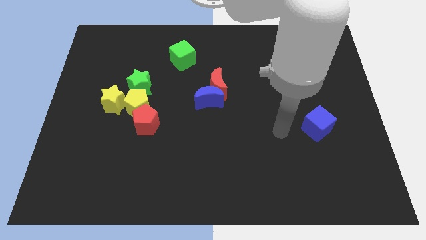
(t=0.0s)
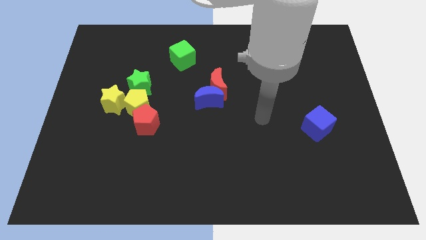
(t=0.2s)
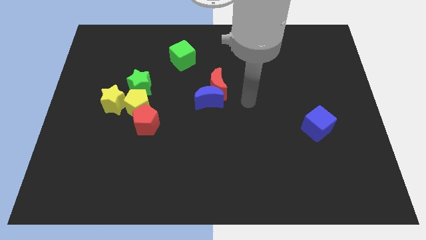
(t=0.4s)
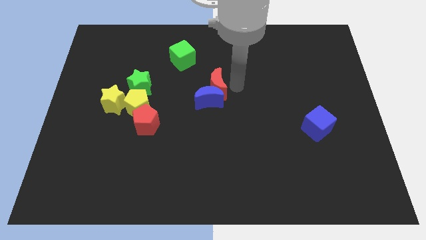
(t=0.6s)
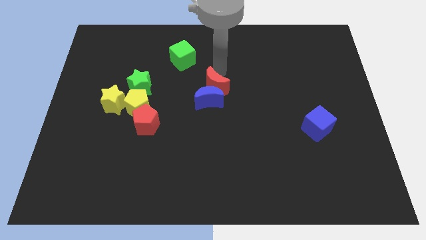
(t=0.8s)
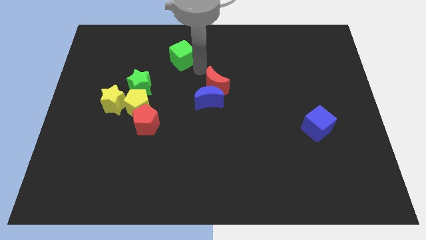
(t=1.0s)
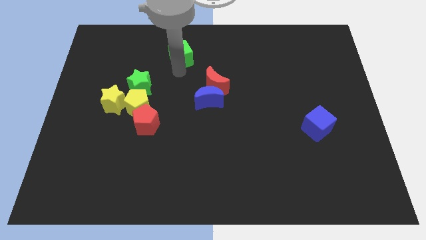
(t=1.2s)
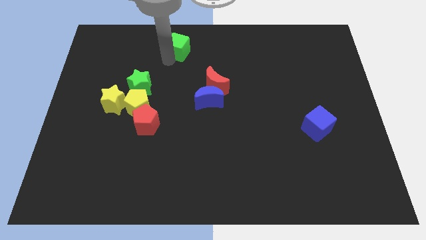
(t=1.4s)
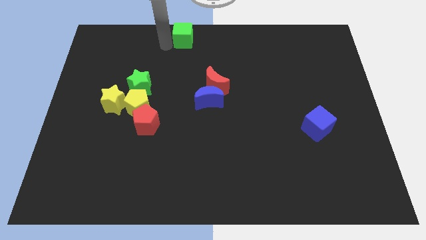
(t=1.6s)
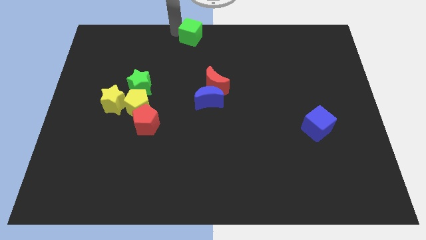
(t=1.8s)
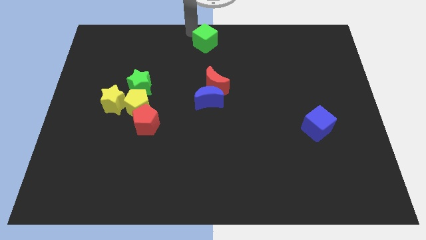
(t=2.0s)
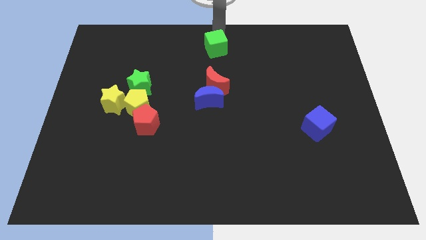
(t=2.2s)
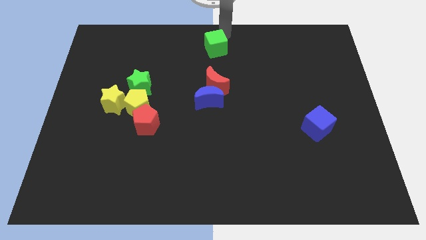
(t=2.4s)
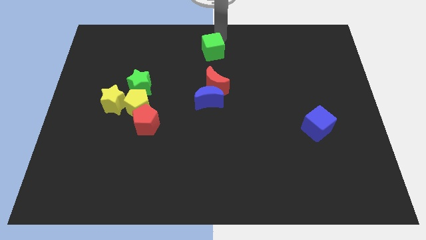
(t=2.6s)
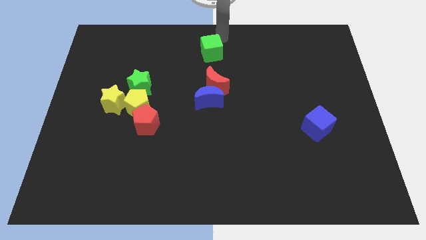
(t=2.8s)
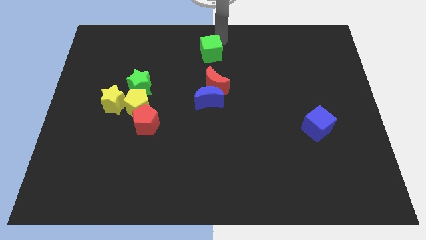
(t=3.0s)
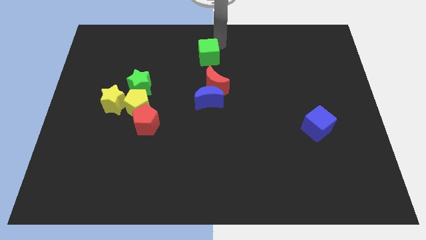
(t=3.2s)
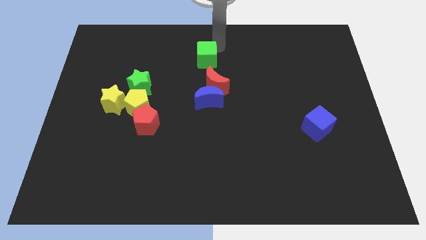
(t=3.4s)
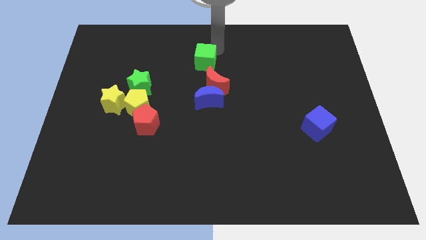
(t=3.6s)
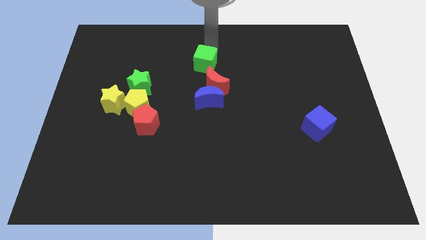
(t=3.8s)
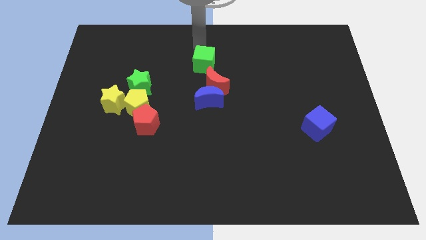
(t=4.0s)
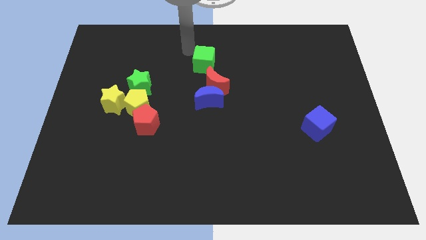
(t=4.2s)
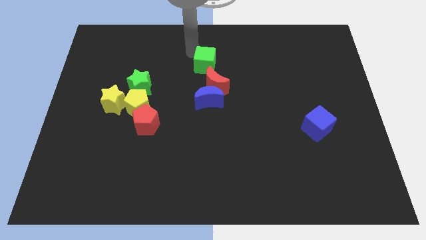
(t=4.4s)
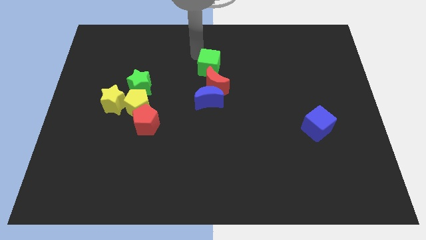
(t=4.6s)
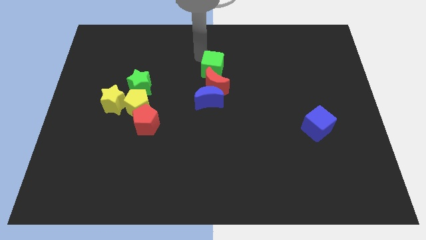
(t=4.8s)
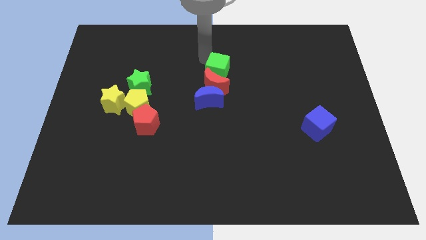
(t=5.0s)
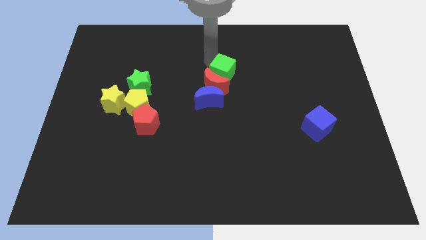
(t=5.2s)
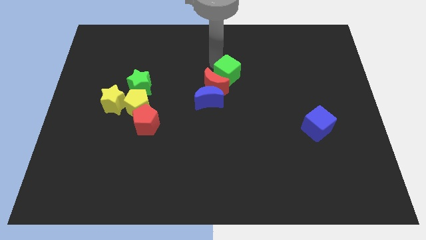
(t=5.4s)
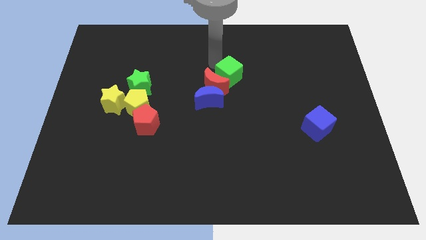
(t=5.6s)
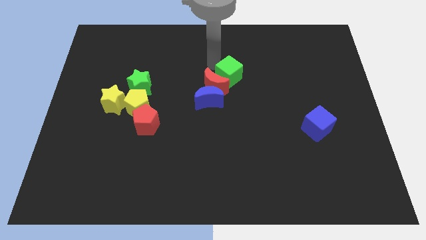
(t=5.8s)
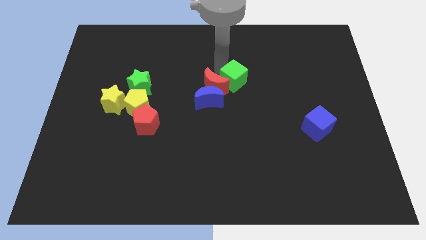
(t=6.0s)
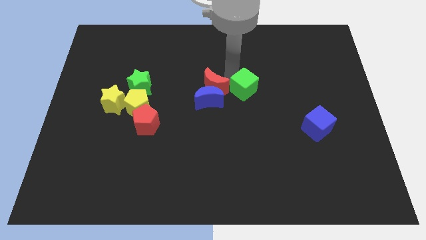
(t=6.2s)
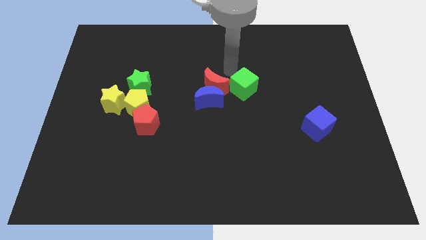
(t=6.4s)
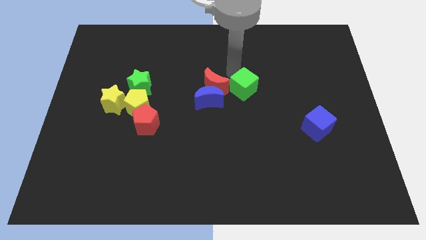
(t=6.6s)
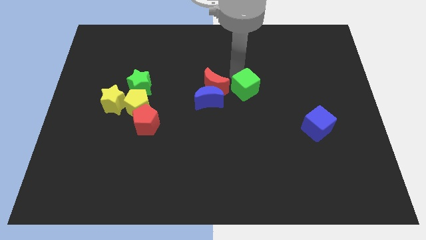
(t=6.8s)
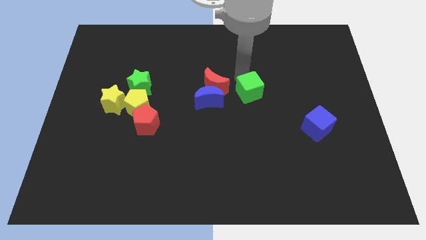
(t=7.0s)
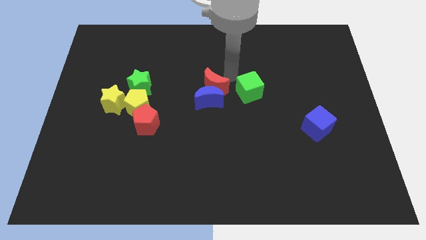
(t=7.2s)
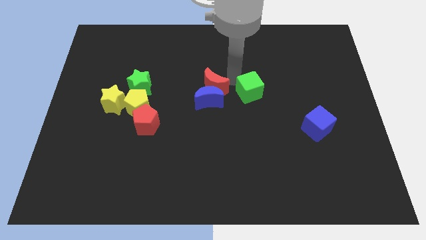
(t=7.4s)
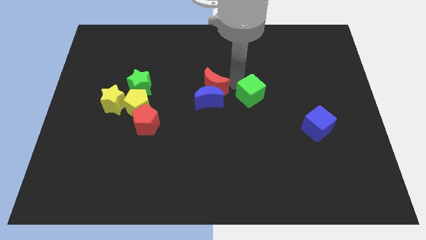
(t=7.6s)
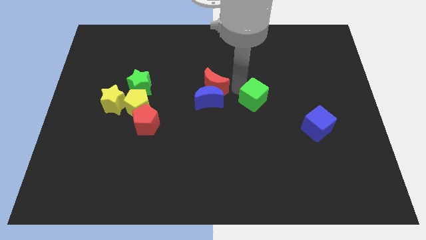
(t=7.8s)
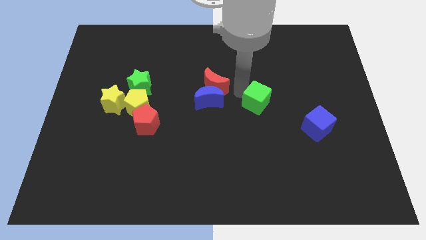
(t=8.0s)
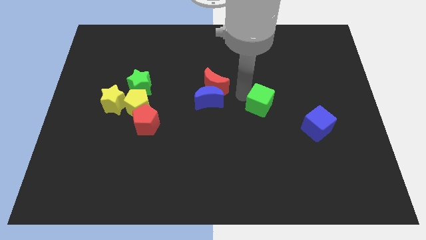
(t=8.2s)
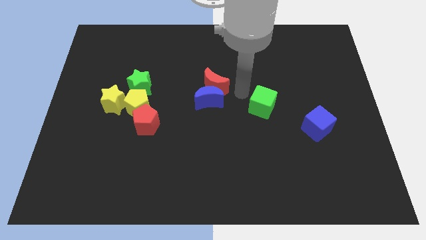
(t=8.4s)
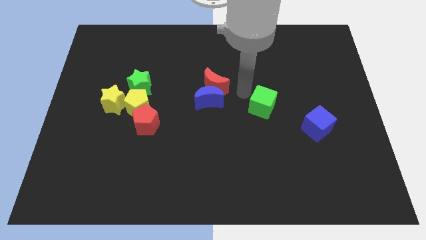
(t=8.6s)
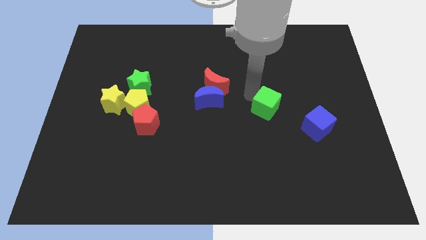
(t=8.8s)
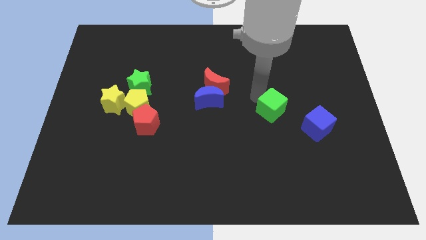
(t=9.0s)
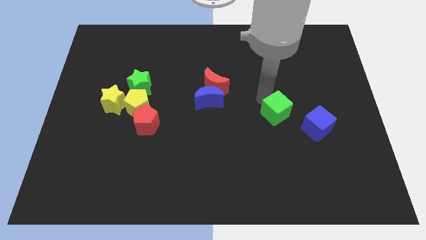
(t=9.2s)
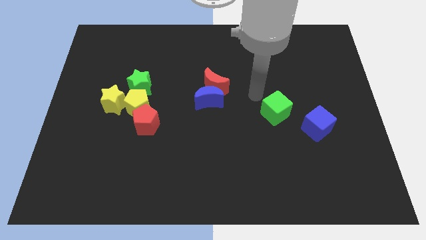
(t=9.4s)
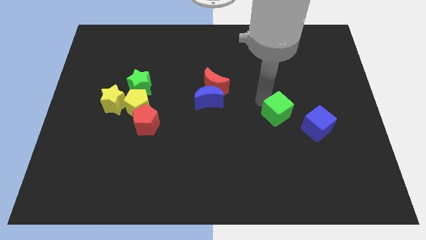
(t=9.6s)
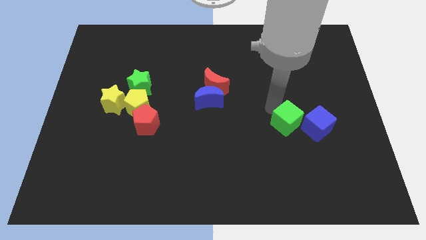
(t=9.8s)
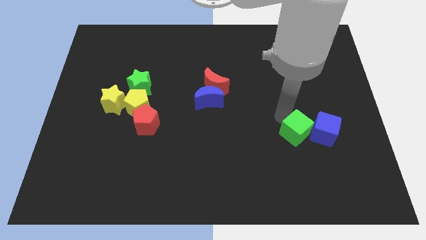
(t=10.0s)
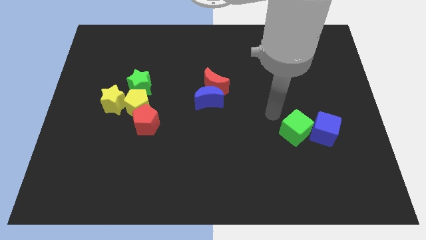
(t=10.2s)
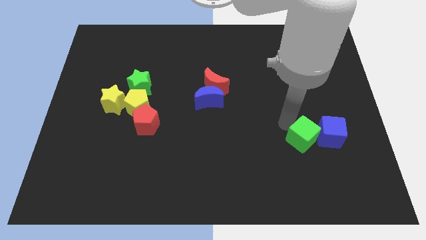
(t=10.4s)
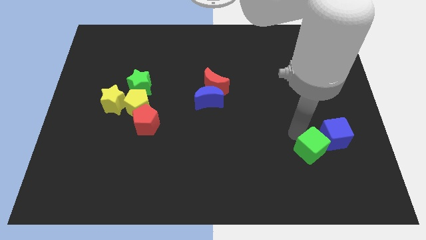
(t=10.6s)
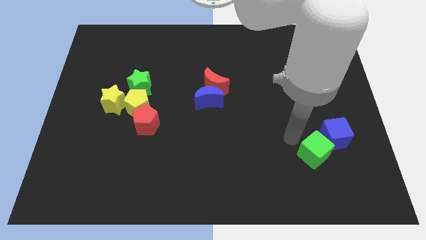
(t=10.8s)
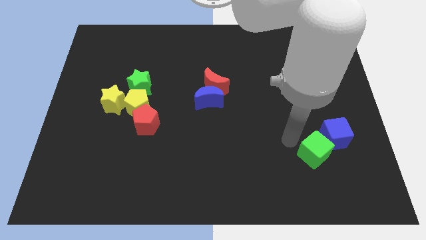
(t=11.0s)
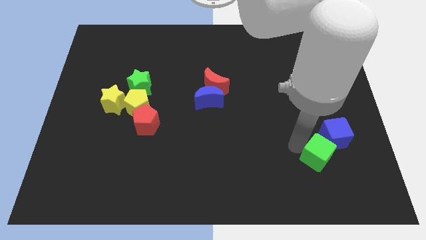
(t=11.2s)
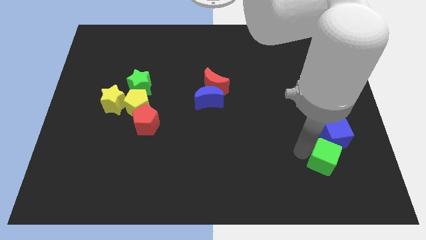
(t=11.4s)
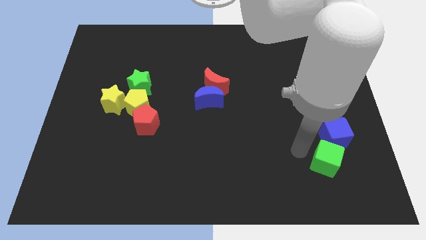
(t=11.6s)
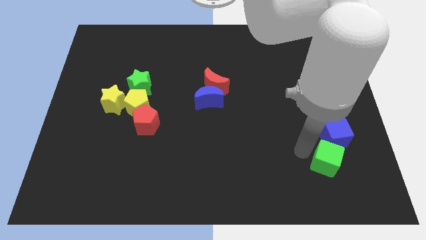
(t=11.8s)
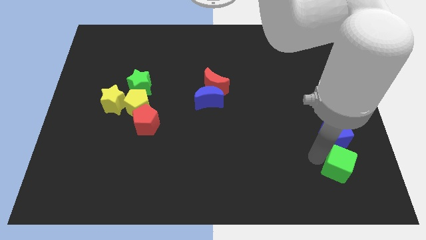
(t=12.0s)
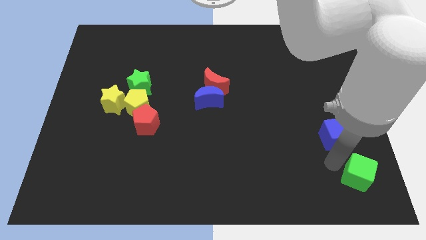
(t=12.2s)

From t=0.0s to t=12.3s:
move the green cube to the bottom right
